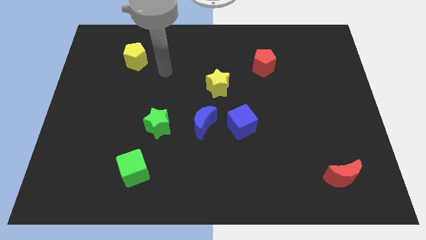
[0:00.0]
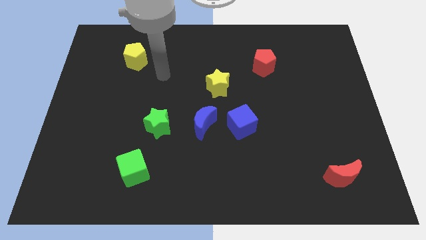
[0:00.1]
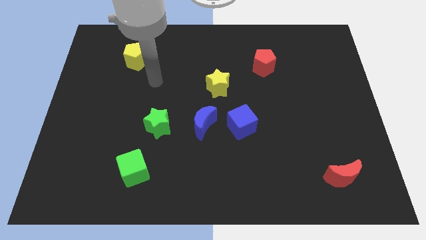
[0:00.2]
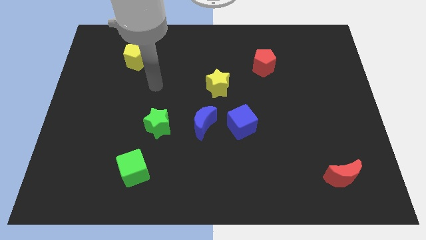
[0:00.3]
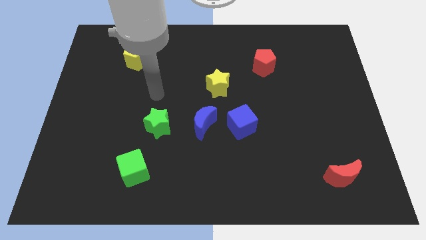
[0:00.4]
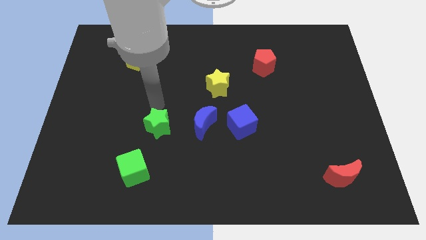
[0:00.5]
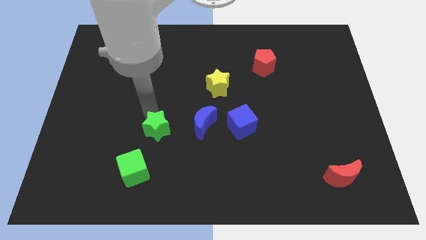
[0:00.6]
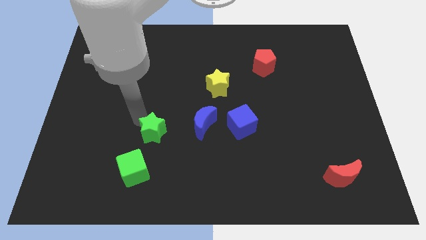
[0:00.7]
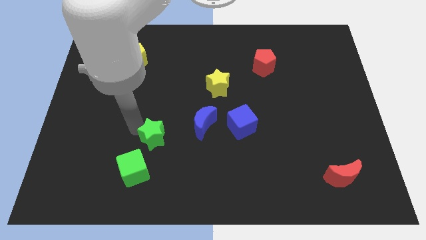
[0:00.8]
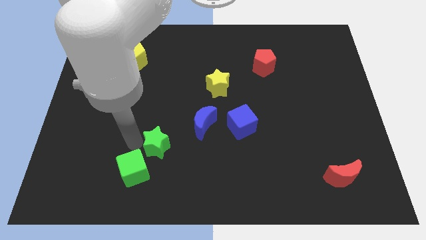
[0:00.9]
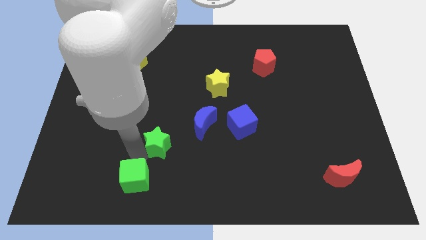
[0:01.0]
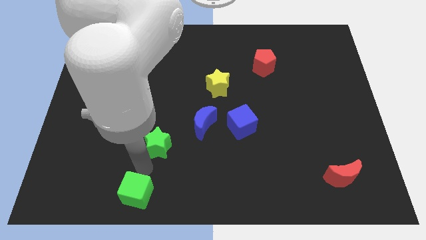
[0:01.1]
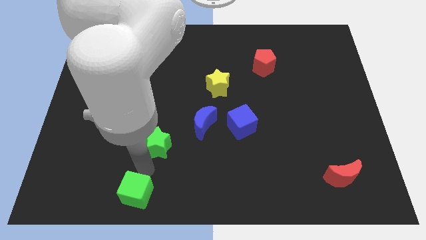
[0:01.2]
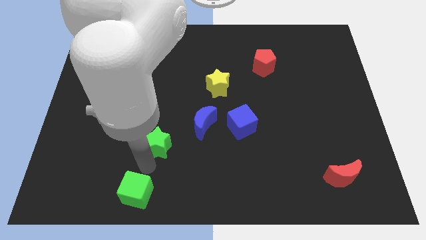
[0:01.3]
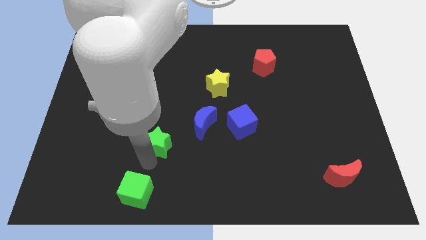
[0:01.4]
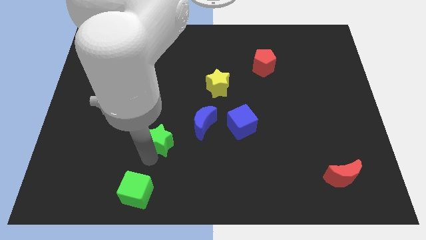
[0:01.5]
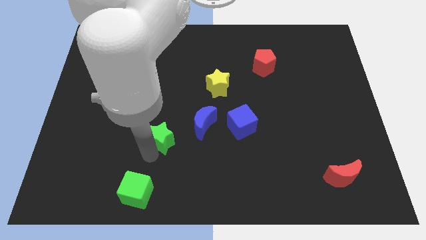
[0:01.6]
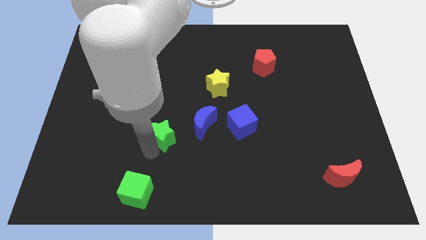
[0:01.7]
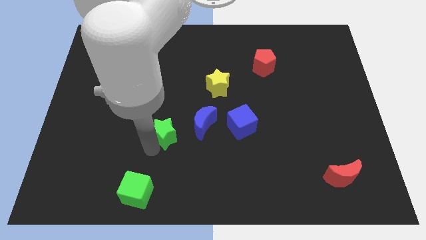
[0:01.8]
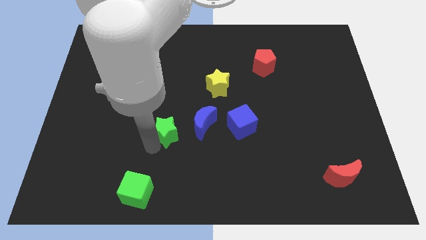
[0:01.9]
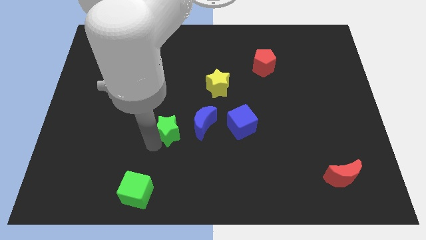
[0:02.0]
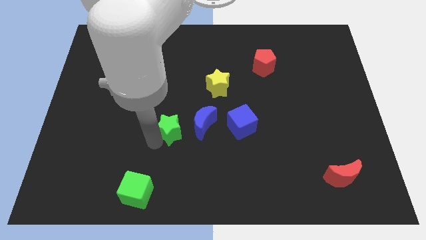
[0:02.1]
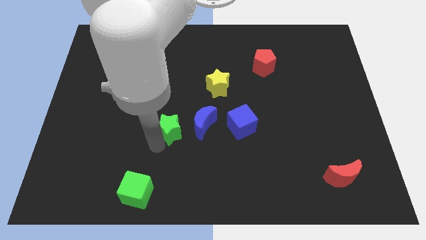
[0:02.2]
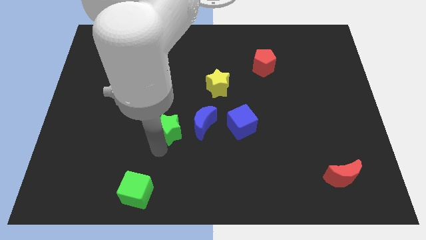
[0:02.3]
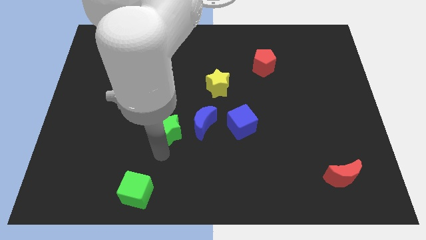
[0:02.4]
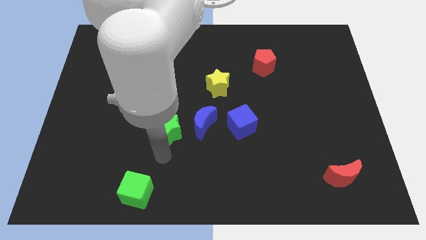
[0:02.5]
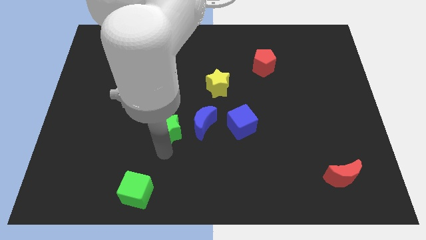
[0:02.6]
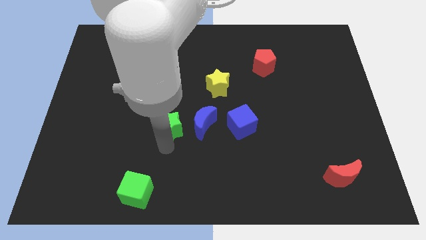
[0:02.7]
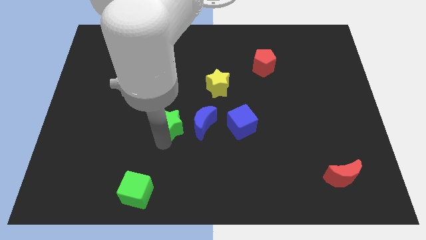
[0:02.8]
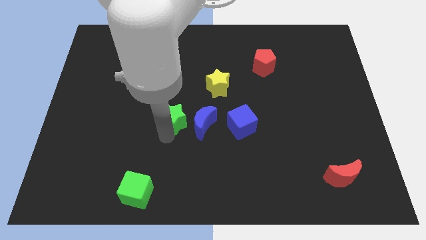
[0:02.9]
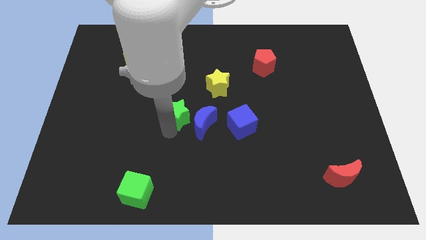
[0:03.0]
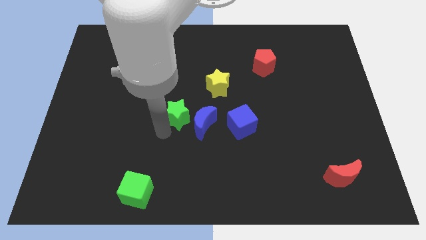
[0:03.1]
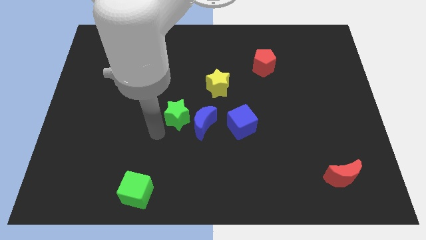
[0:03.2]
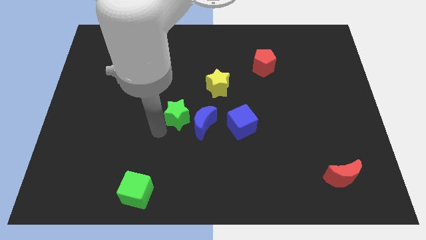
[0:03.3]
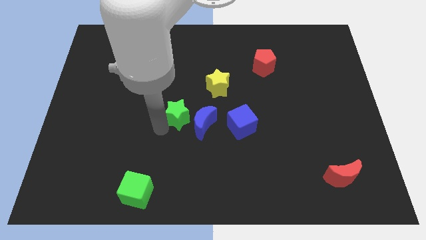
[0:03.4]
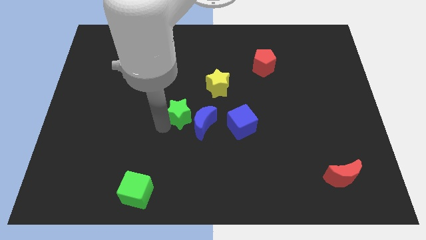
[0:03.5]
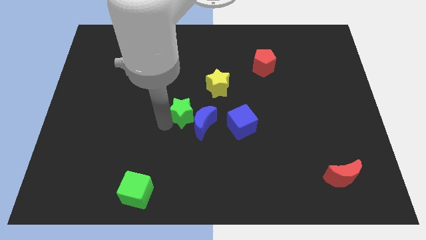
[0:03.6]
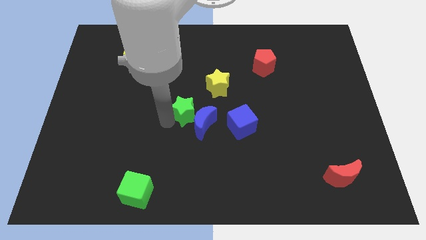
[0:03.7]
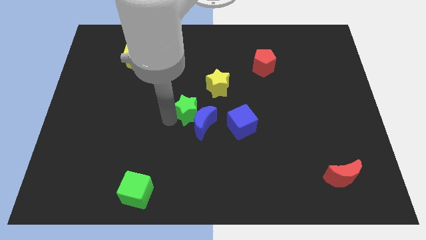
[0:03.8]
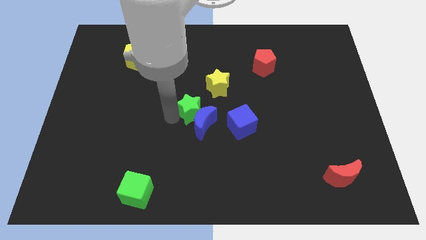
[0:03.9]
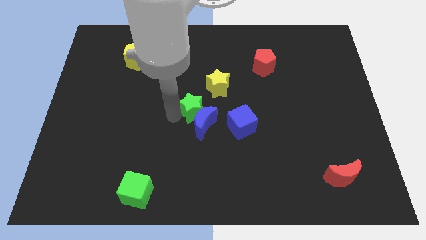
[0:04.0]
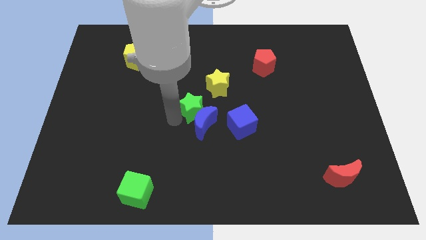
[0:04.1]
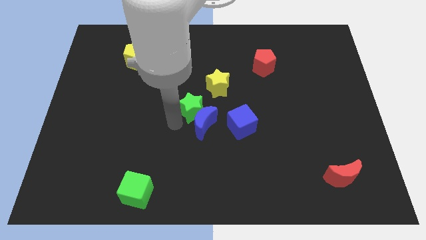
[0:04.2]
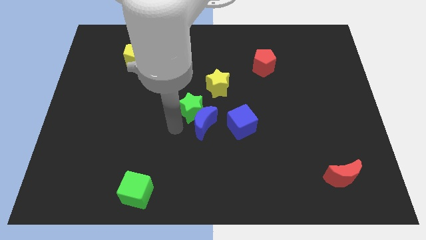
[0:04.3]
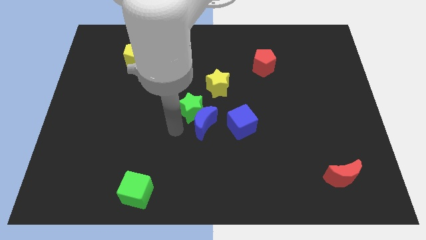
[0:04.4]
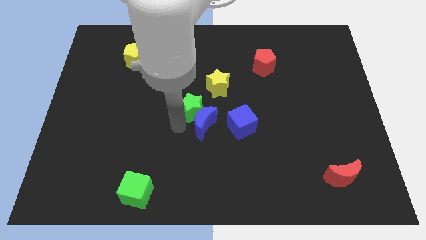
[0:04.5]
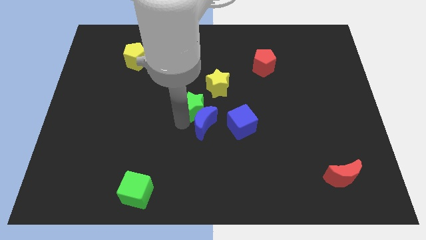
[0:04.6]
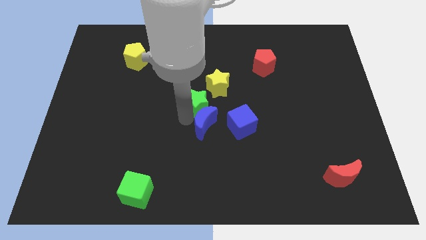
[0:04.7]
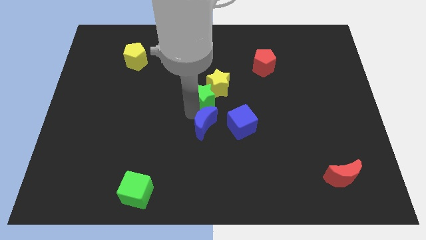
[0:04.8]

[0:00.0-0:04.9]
move the green star next to the yellow star

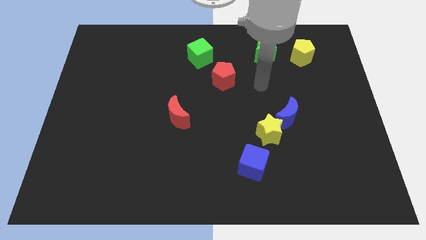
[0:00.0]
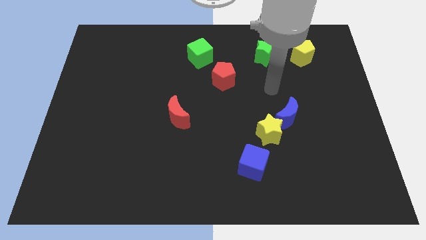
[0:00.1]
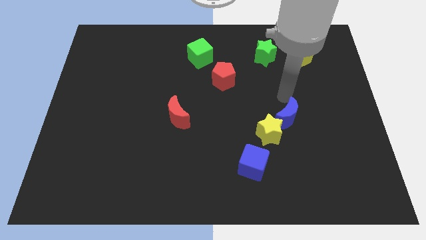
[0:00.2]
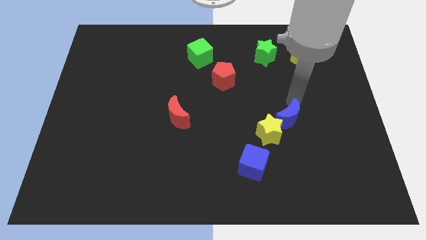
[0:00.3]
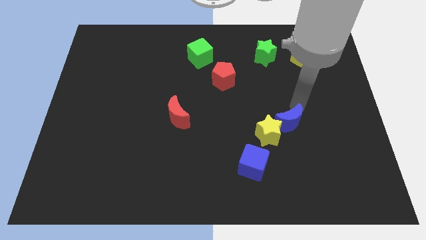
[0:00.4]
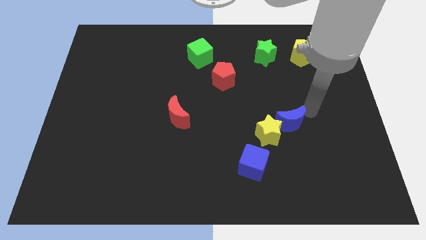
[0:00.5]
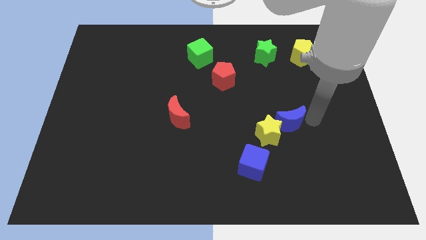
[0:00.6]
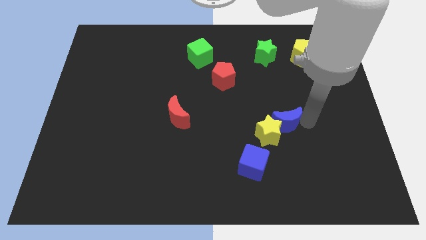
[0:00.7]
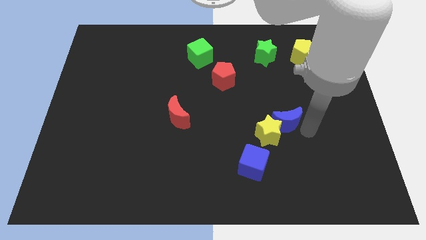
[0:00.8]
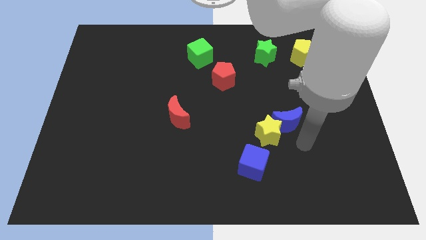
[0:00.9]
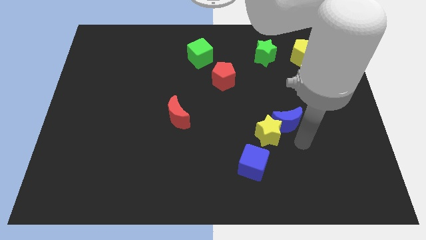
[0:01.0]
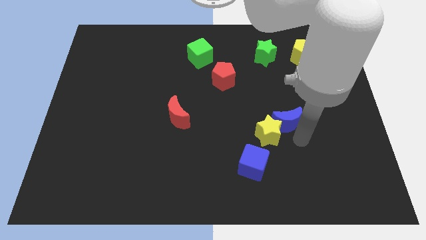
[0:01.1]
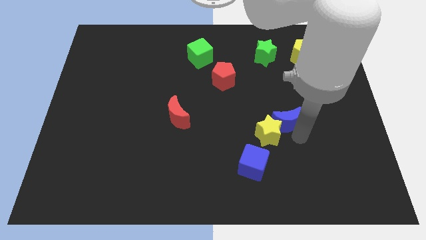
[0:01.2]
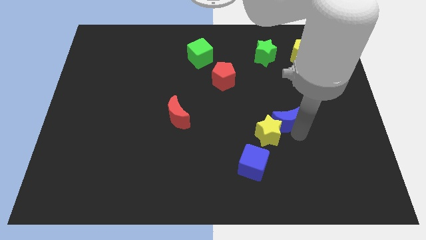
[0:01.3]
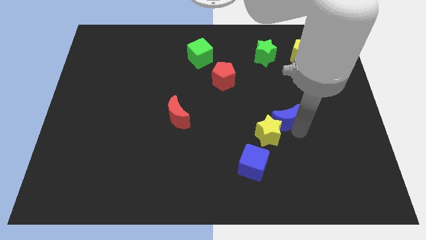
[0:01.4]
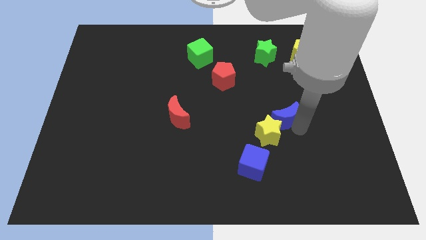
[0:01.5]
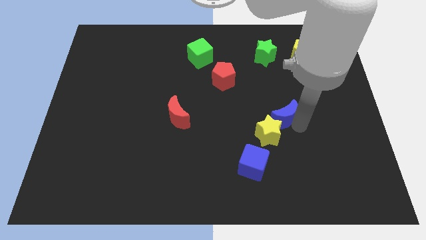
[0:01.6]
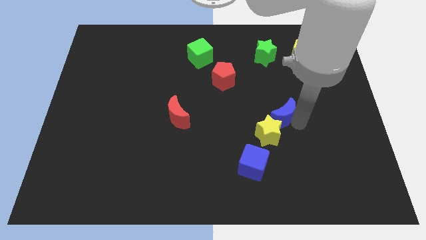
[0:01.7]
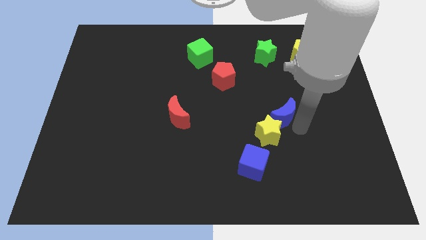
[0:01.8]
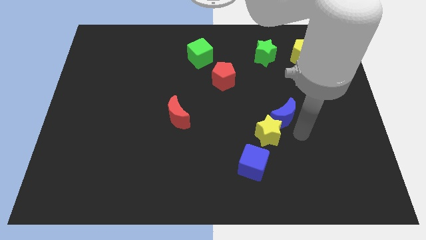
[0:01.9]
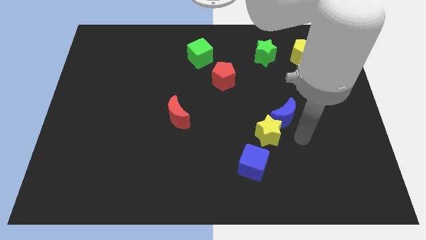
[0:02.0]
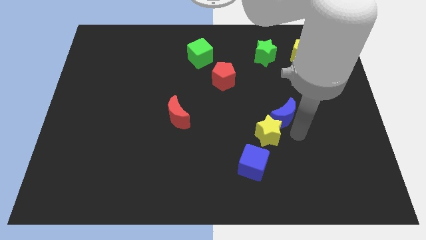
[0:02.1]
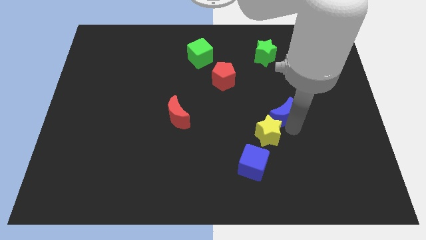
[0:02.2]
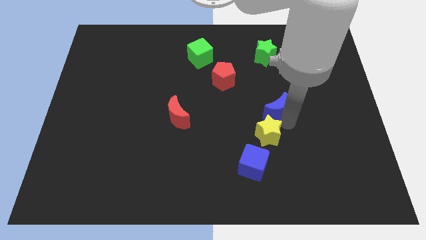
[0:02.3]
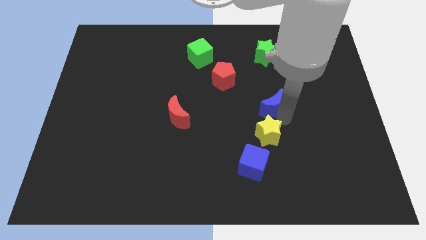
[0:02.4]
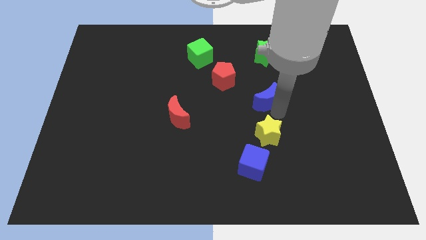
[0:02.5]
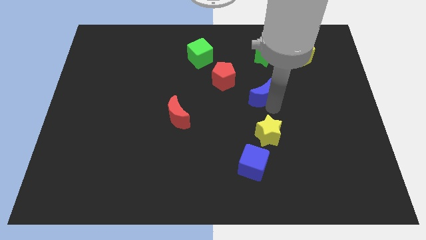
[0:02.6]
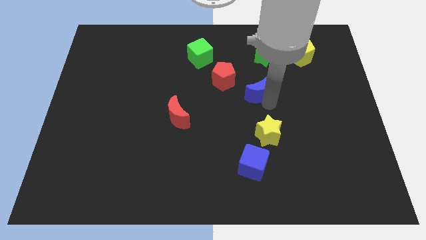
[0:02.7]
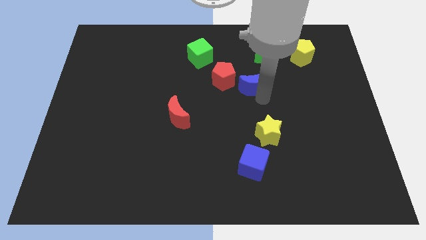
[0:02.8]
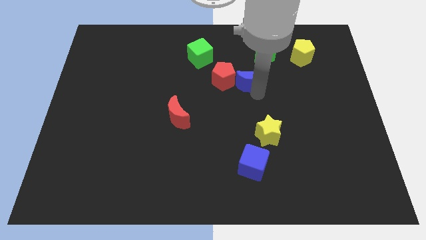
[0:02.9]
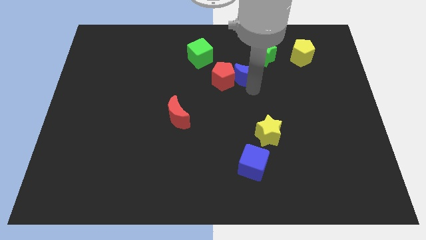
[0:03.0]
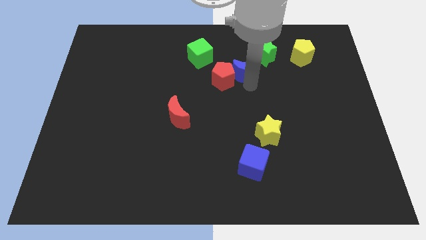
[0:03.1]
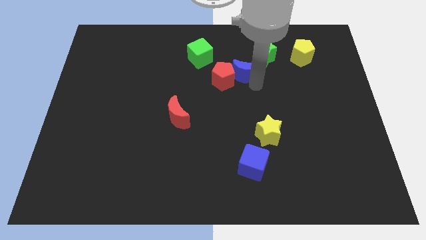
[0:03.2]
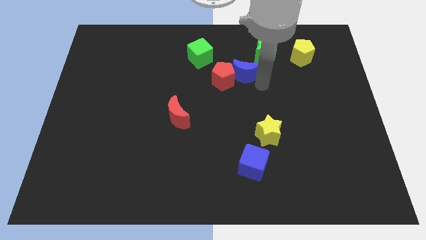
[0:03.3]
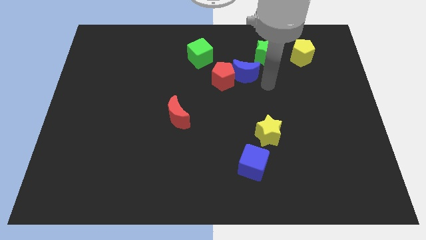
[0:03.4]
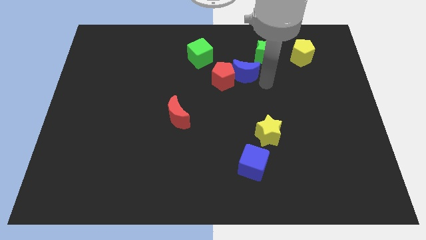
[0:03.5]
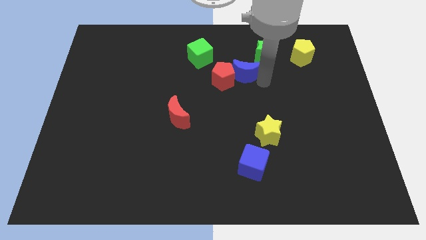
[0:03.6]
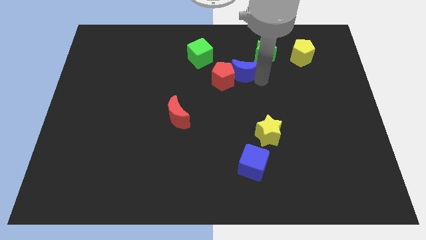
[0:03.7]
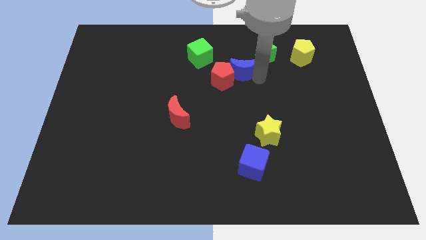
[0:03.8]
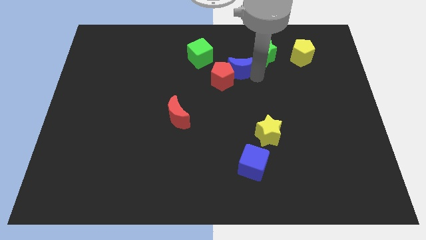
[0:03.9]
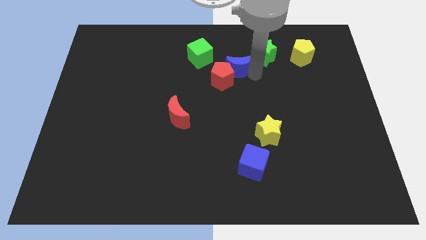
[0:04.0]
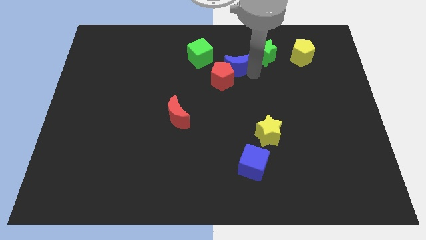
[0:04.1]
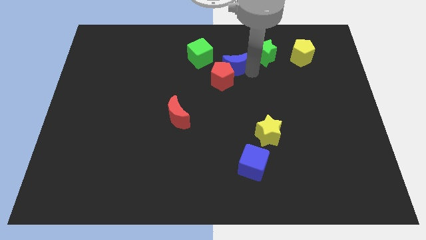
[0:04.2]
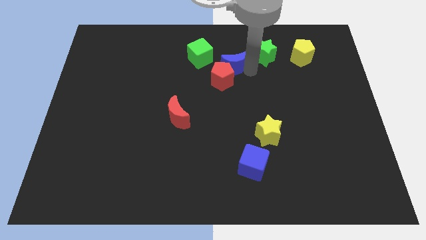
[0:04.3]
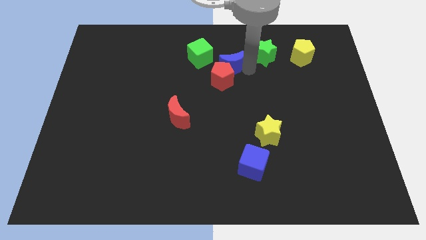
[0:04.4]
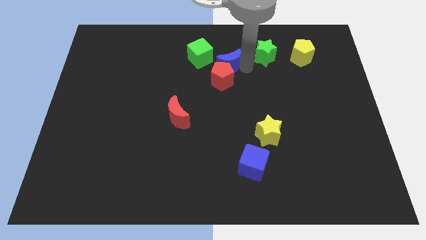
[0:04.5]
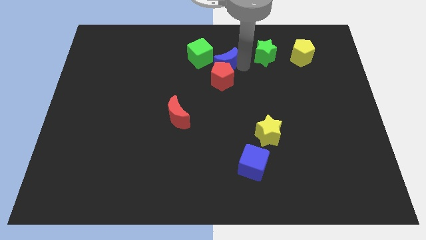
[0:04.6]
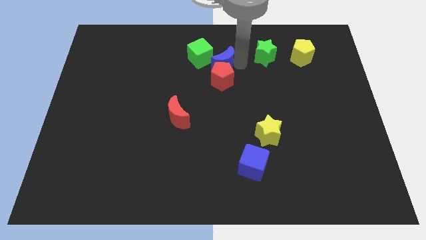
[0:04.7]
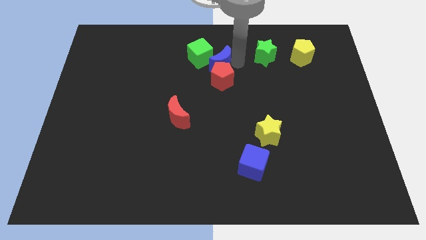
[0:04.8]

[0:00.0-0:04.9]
put the blue moon close to the green cube
